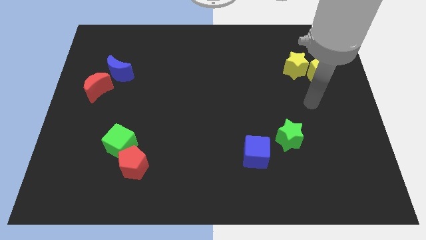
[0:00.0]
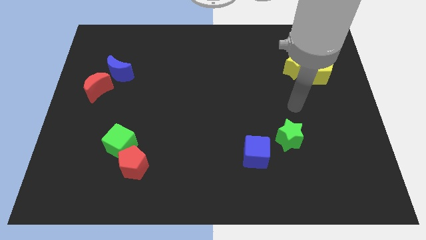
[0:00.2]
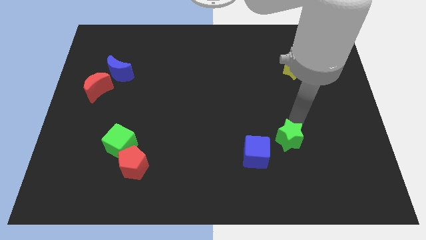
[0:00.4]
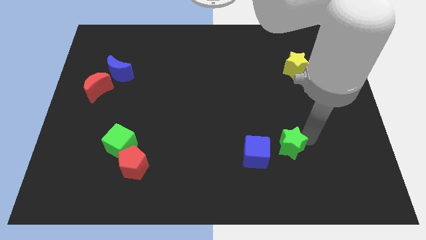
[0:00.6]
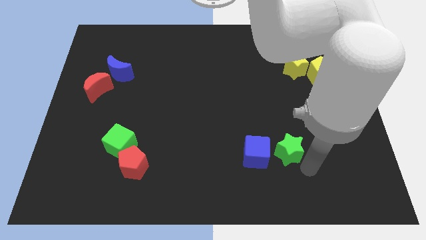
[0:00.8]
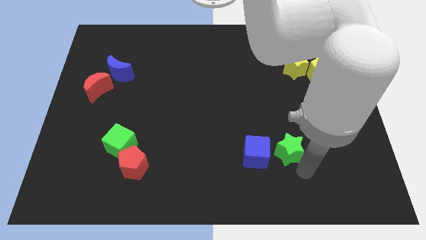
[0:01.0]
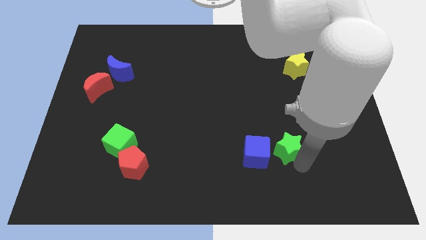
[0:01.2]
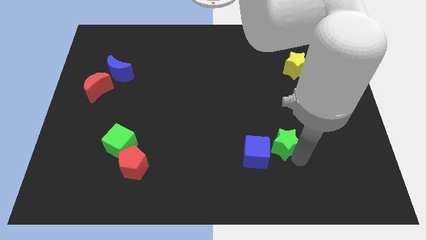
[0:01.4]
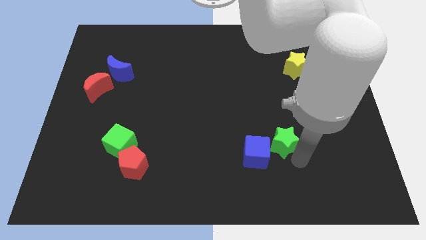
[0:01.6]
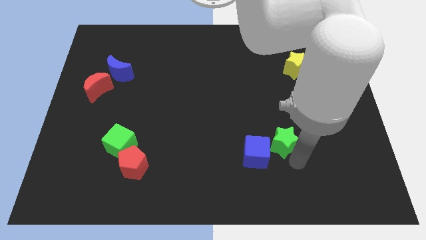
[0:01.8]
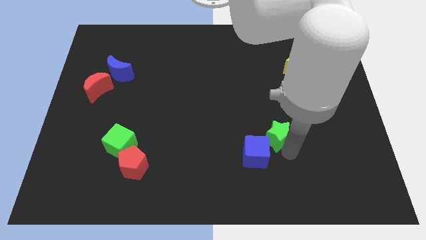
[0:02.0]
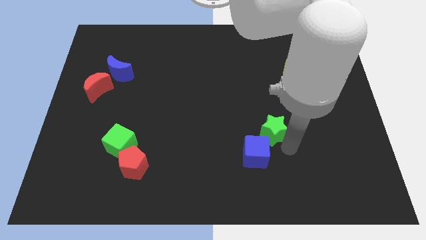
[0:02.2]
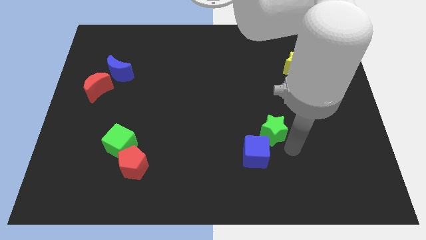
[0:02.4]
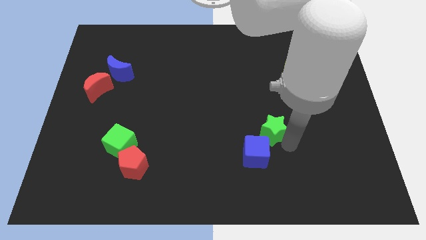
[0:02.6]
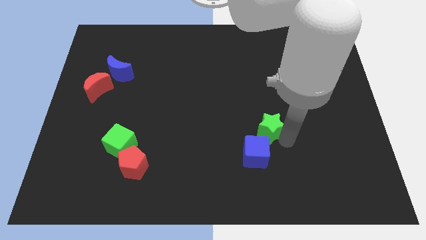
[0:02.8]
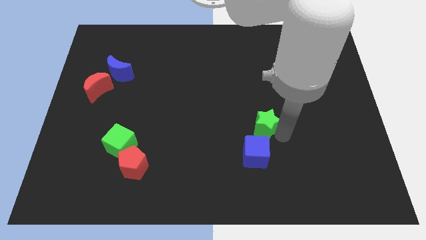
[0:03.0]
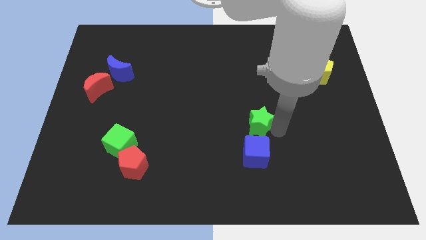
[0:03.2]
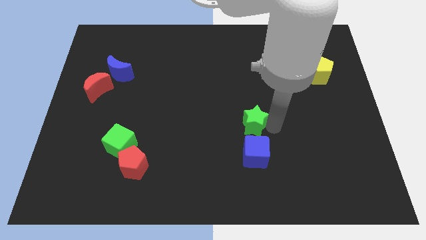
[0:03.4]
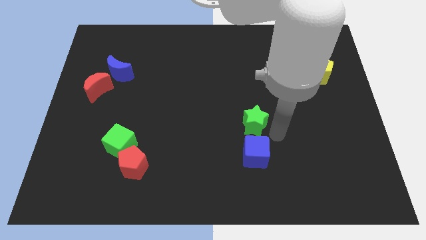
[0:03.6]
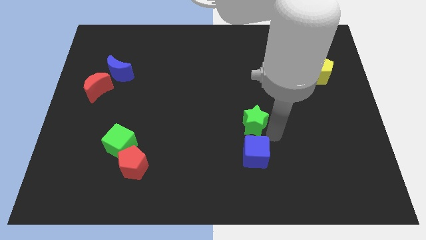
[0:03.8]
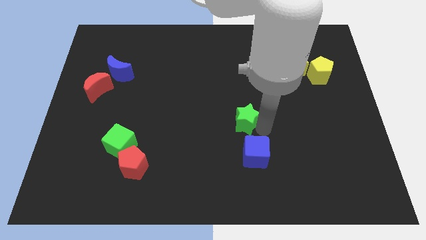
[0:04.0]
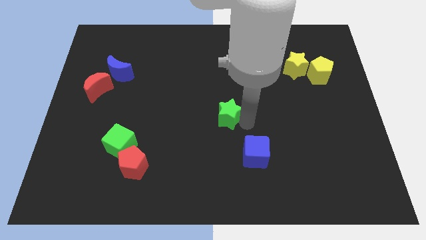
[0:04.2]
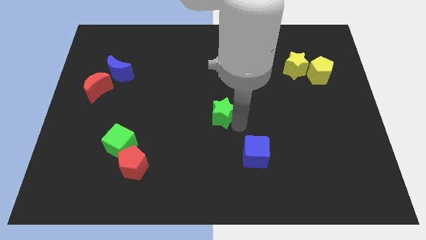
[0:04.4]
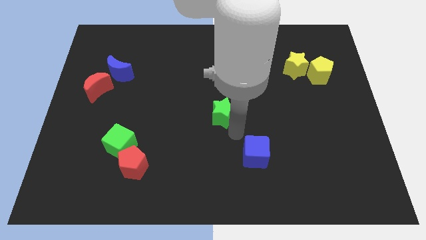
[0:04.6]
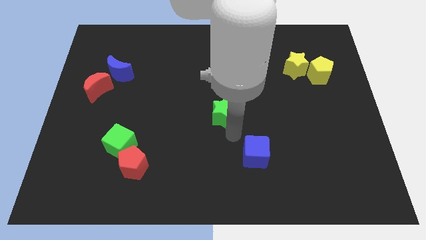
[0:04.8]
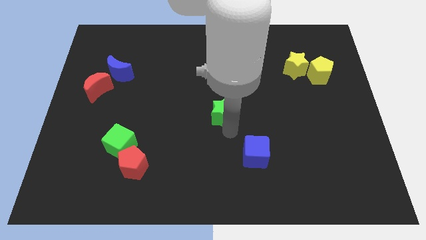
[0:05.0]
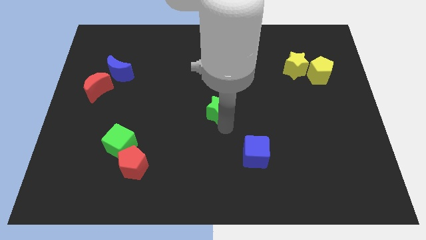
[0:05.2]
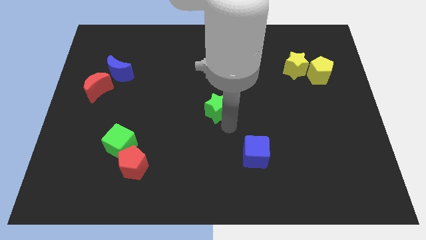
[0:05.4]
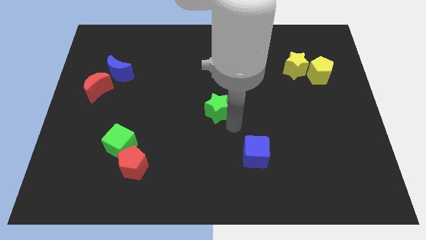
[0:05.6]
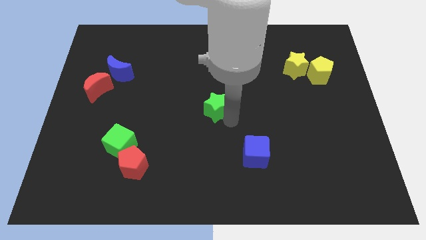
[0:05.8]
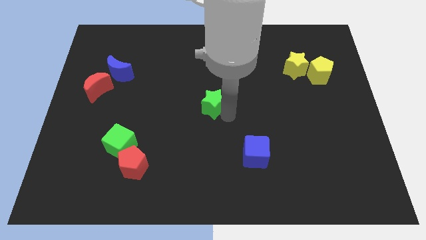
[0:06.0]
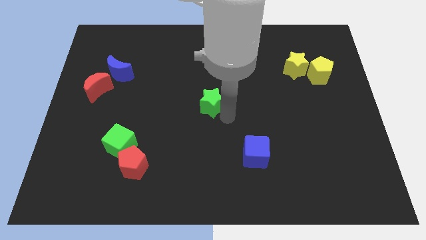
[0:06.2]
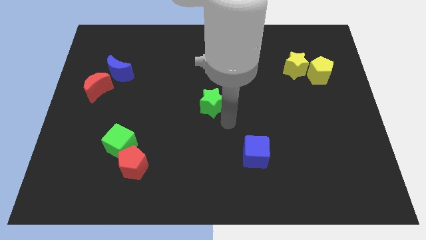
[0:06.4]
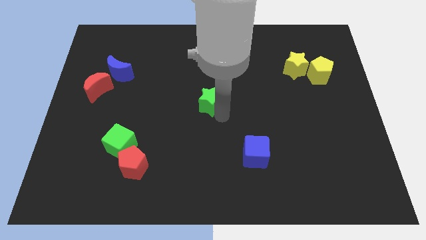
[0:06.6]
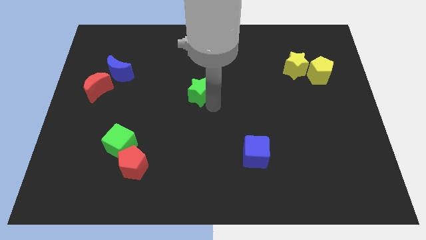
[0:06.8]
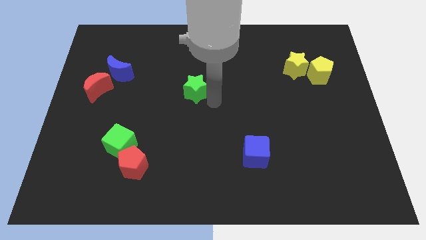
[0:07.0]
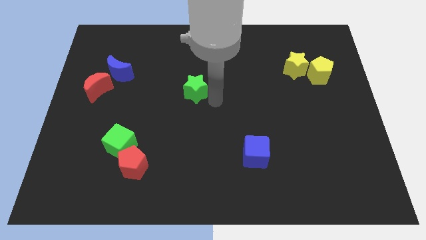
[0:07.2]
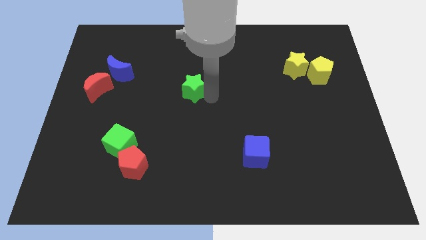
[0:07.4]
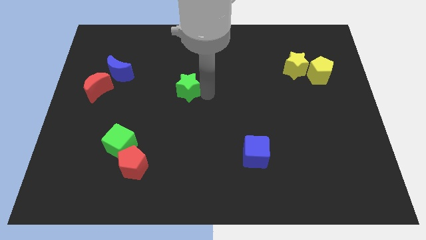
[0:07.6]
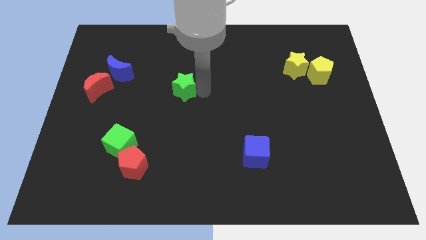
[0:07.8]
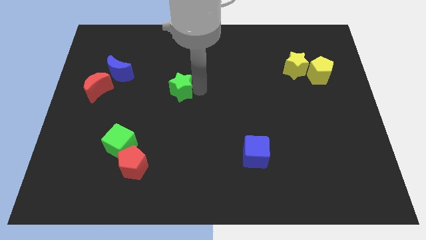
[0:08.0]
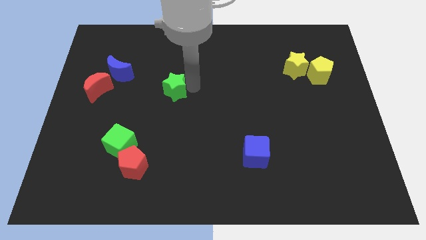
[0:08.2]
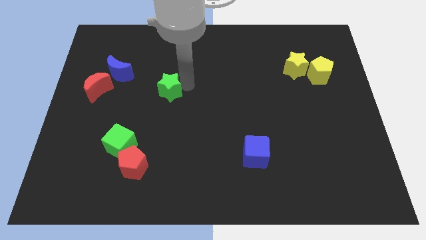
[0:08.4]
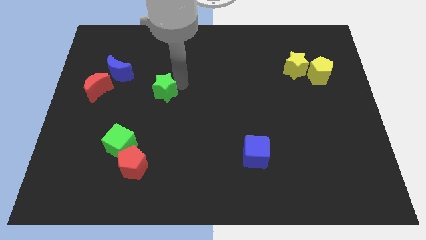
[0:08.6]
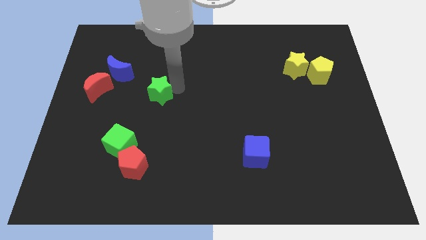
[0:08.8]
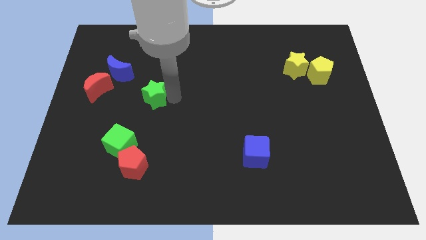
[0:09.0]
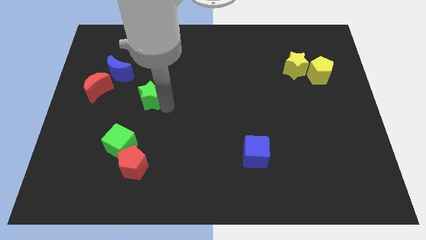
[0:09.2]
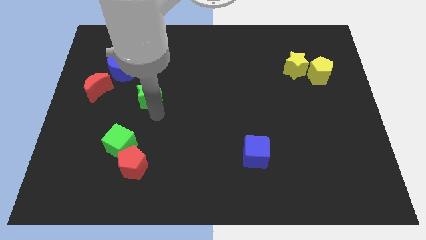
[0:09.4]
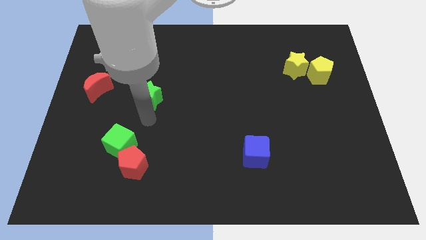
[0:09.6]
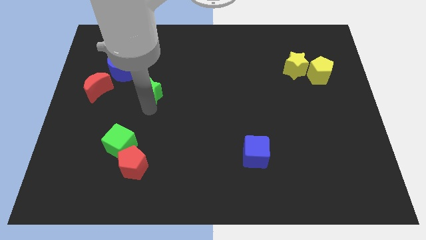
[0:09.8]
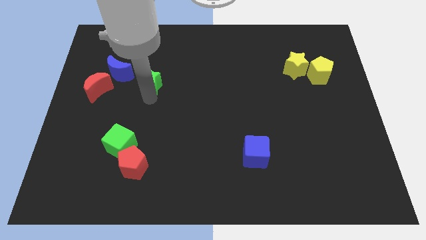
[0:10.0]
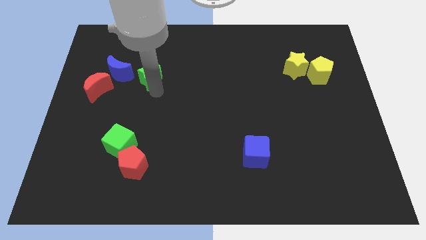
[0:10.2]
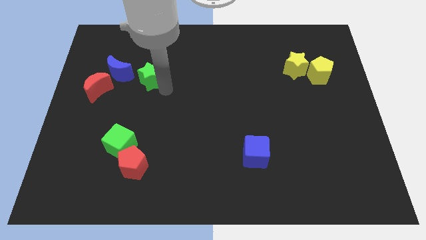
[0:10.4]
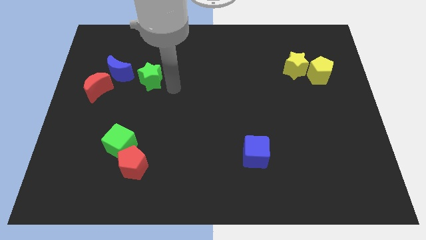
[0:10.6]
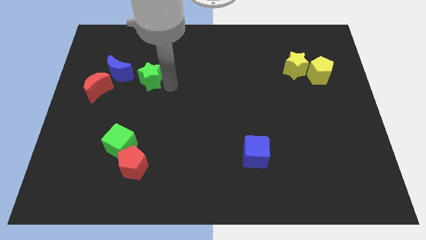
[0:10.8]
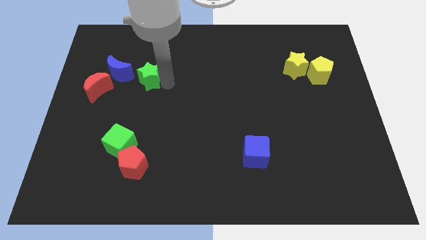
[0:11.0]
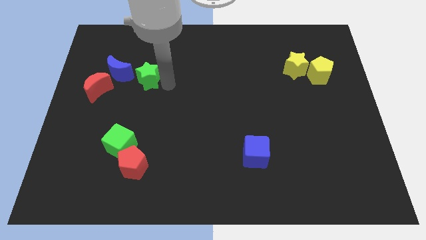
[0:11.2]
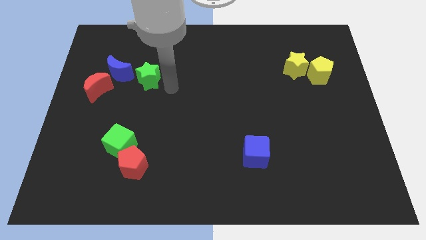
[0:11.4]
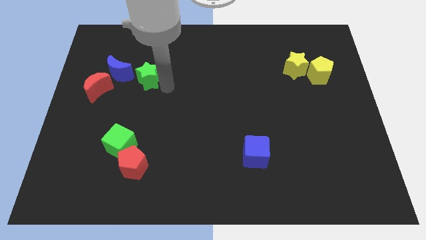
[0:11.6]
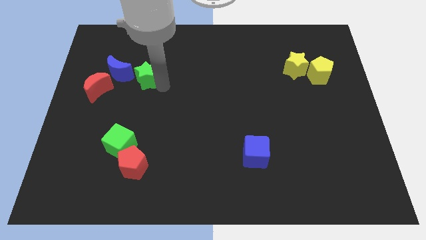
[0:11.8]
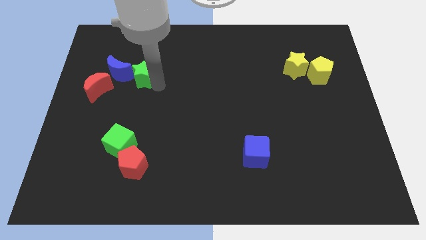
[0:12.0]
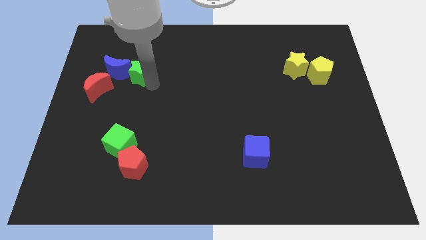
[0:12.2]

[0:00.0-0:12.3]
push the green star to the blue moon

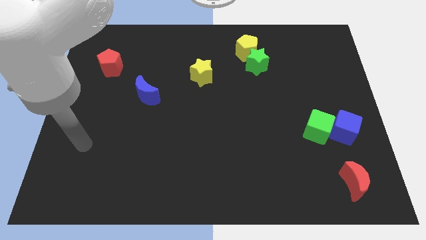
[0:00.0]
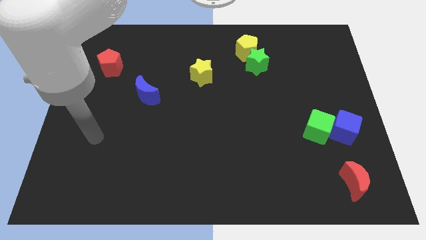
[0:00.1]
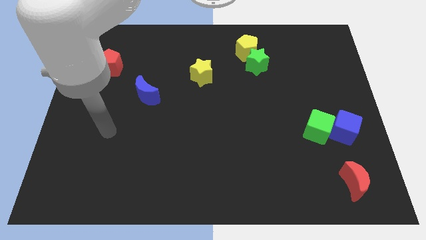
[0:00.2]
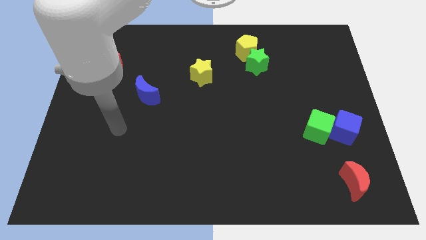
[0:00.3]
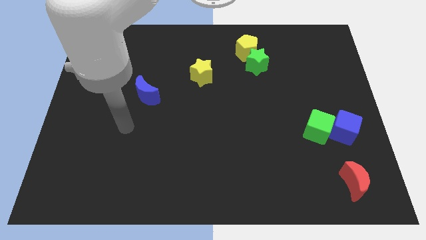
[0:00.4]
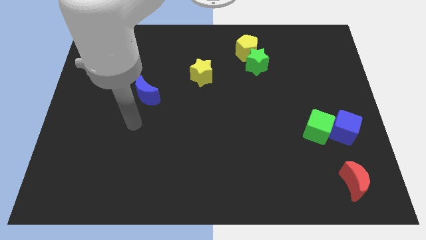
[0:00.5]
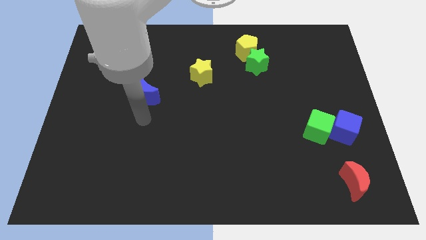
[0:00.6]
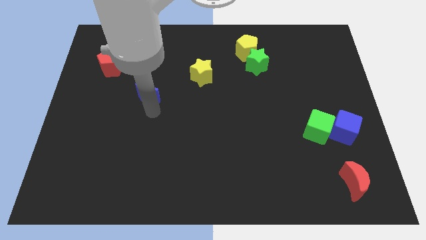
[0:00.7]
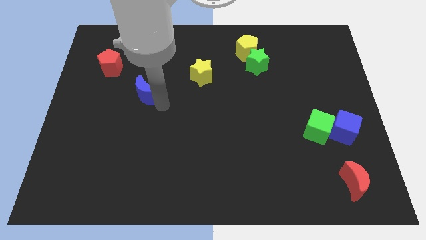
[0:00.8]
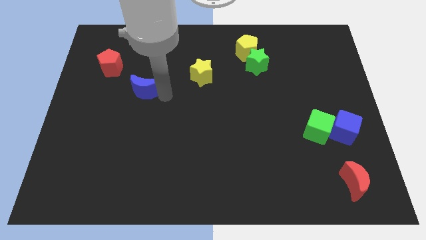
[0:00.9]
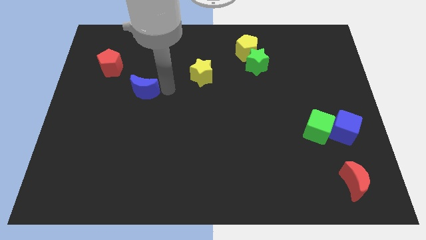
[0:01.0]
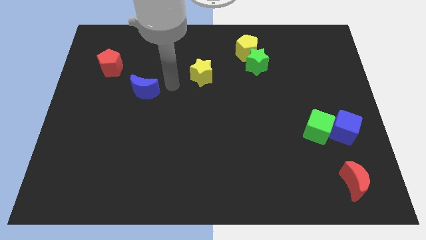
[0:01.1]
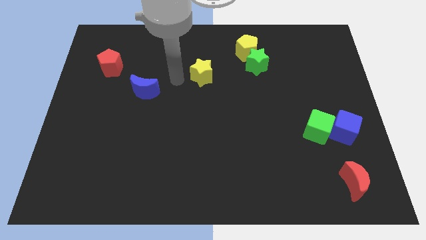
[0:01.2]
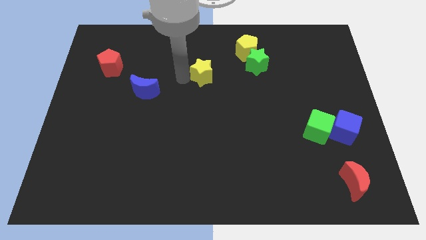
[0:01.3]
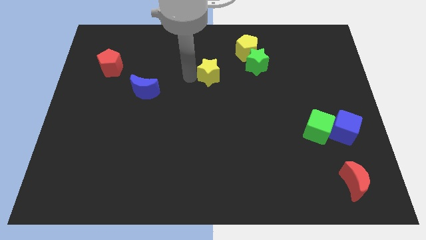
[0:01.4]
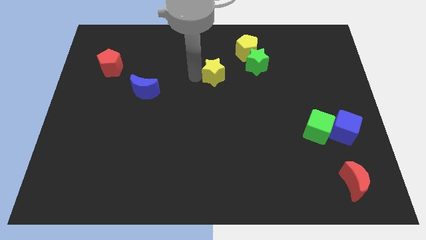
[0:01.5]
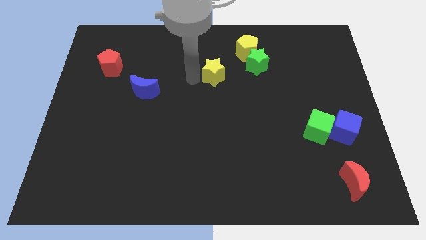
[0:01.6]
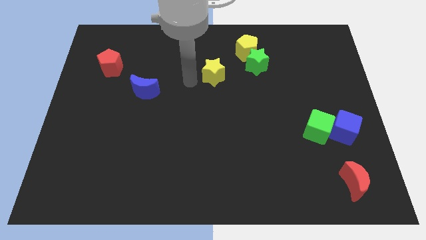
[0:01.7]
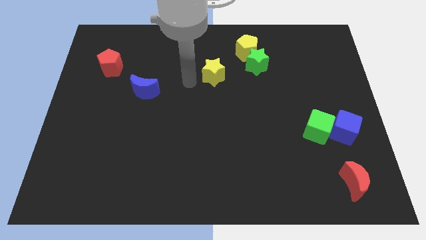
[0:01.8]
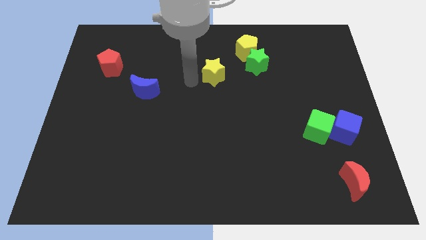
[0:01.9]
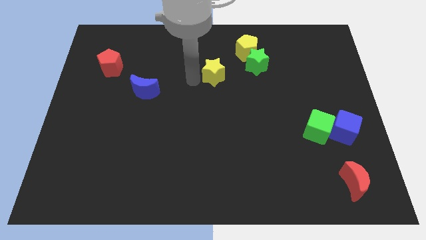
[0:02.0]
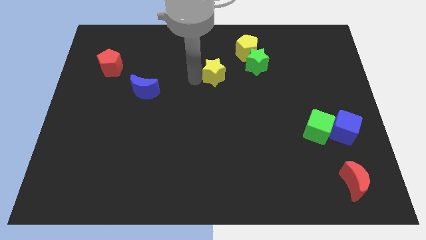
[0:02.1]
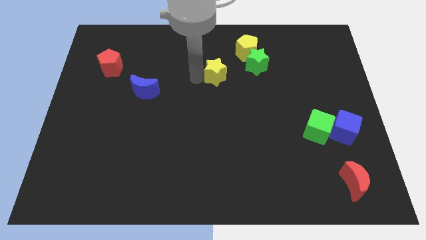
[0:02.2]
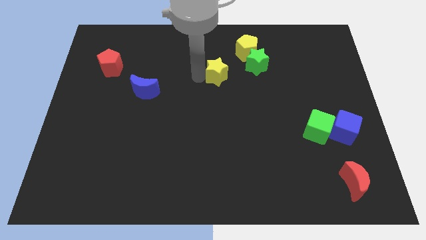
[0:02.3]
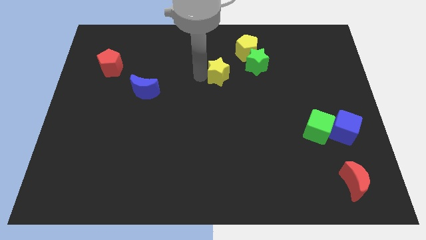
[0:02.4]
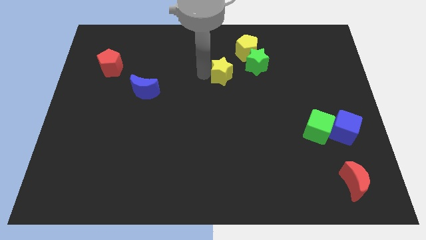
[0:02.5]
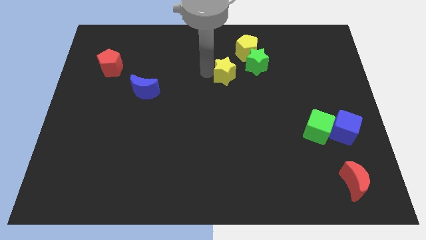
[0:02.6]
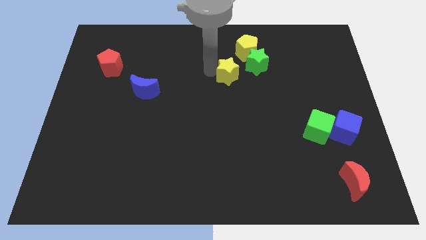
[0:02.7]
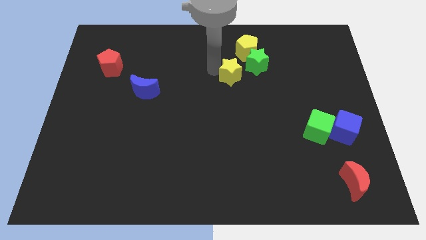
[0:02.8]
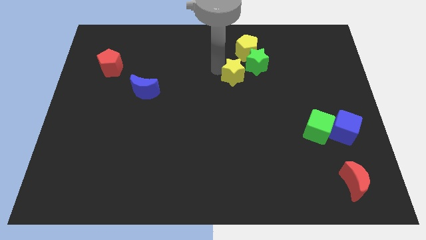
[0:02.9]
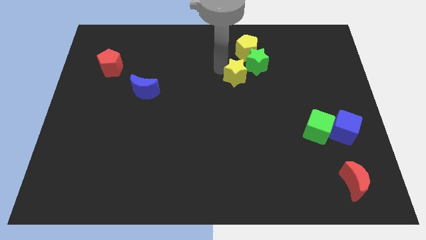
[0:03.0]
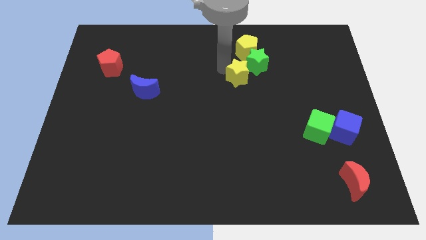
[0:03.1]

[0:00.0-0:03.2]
move the yellow star close to the green star
